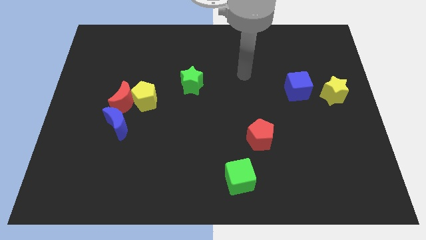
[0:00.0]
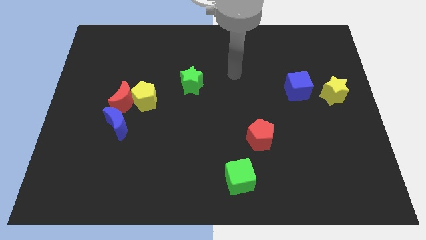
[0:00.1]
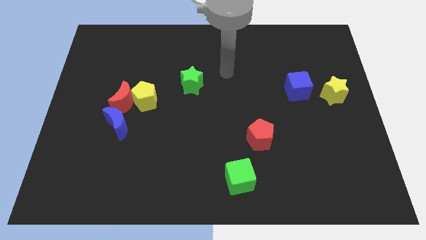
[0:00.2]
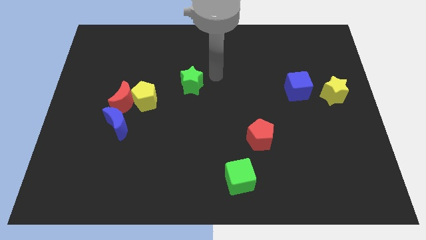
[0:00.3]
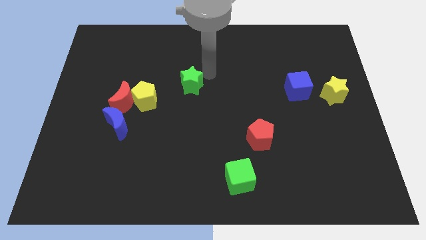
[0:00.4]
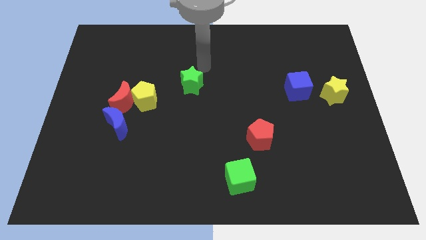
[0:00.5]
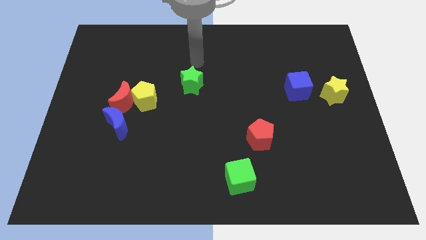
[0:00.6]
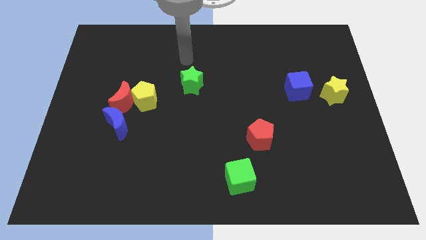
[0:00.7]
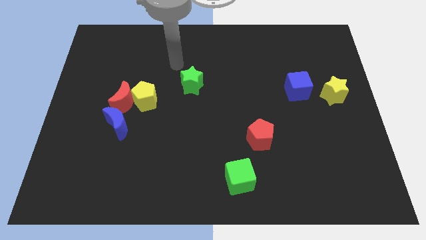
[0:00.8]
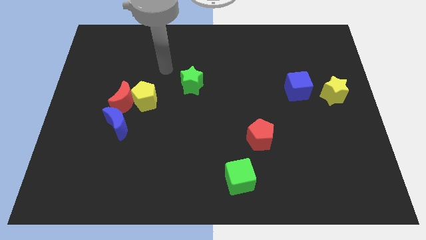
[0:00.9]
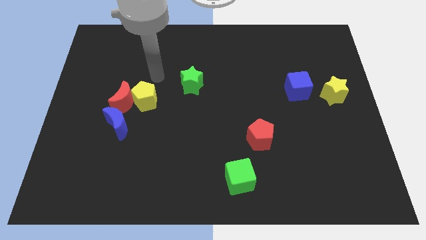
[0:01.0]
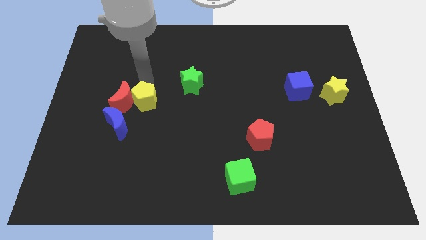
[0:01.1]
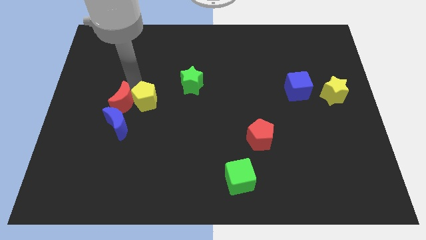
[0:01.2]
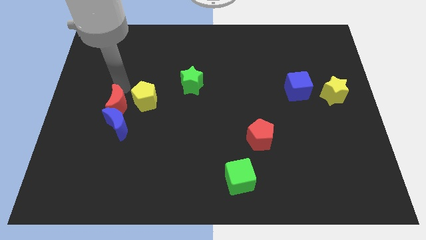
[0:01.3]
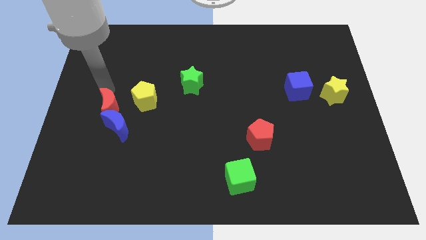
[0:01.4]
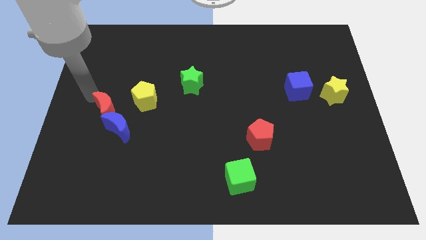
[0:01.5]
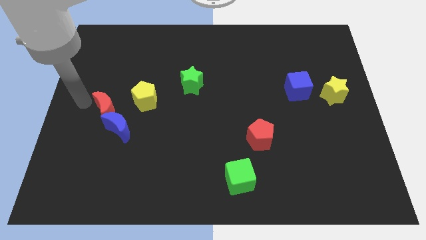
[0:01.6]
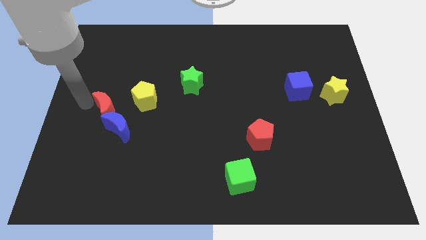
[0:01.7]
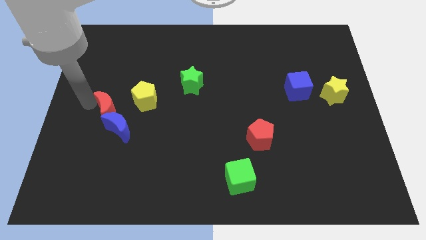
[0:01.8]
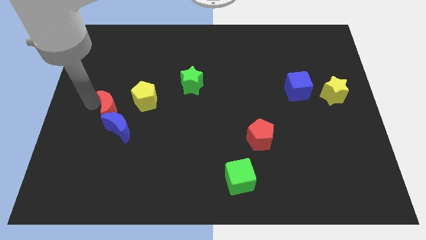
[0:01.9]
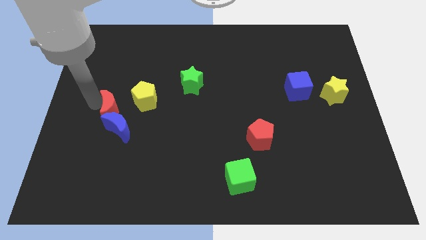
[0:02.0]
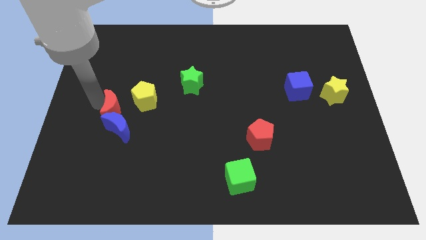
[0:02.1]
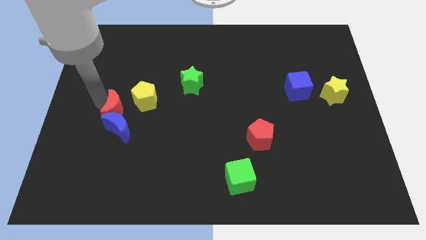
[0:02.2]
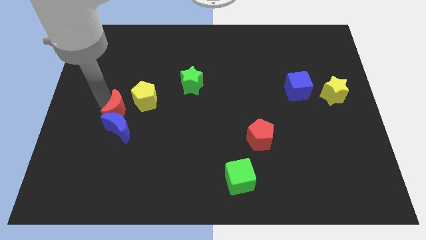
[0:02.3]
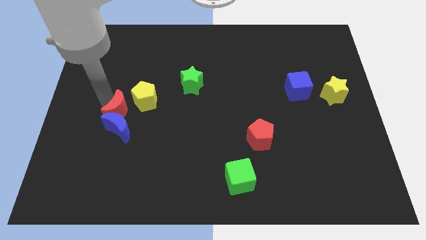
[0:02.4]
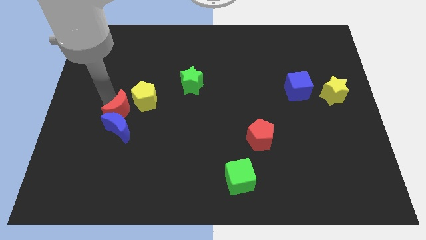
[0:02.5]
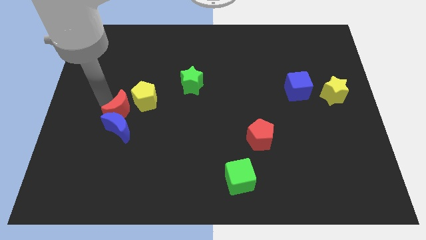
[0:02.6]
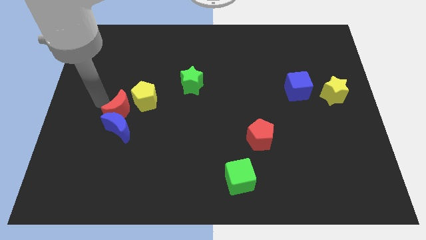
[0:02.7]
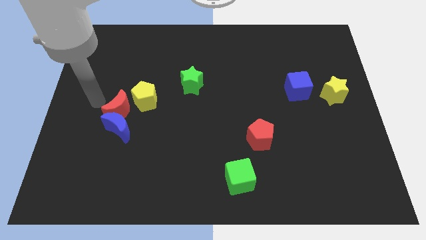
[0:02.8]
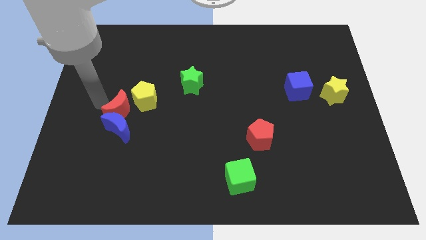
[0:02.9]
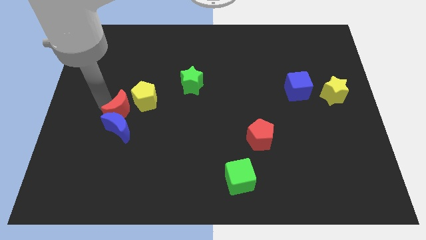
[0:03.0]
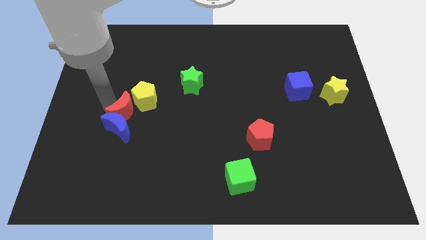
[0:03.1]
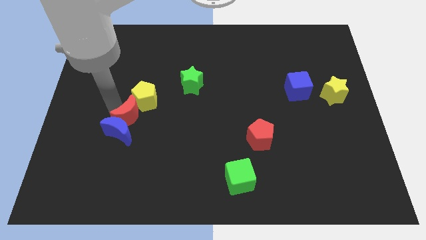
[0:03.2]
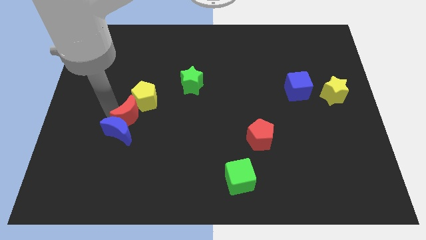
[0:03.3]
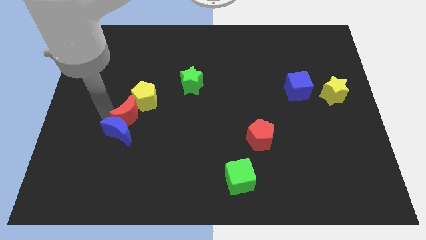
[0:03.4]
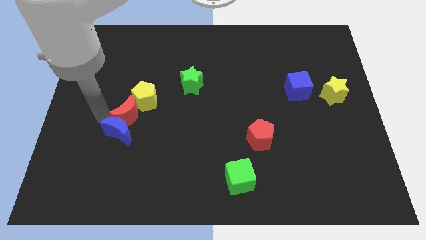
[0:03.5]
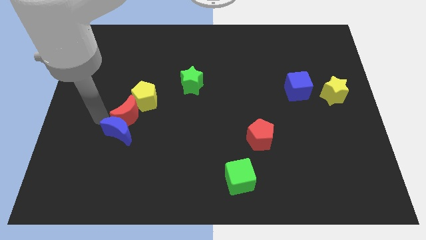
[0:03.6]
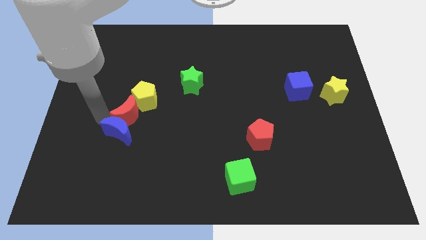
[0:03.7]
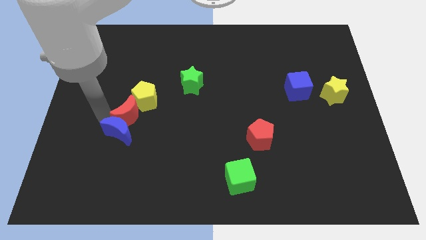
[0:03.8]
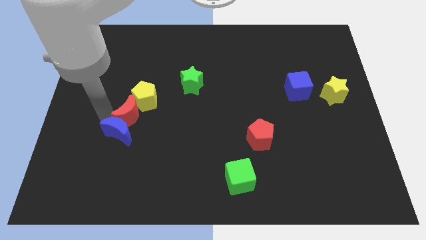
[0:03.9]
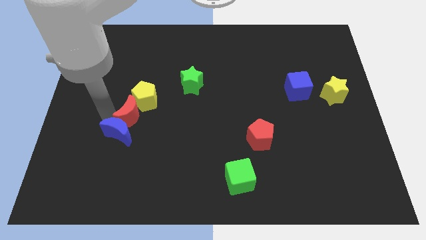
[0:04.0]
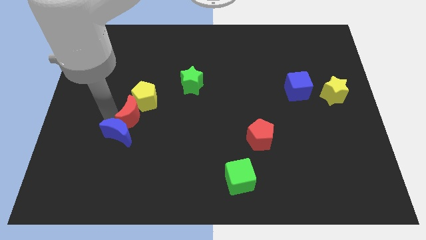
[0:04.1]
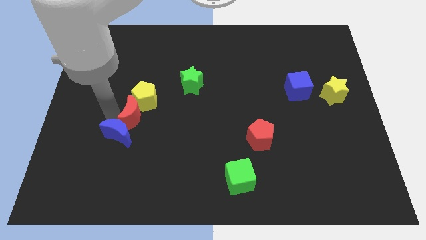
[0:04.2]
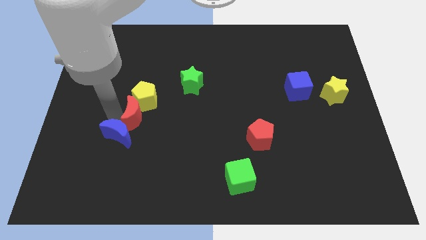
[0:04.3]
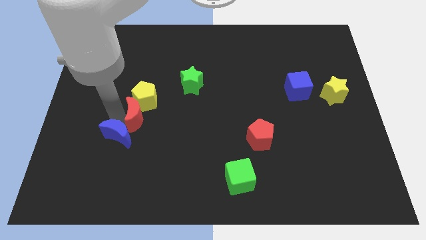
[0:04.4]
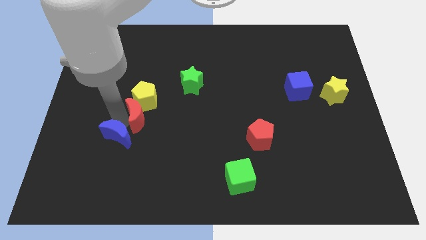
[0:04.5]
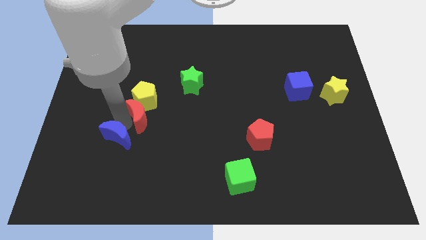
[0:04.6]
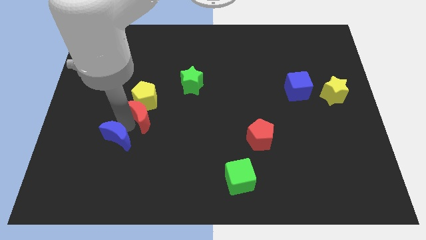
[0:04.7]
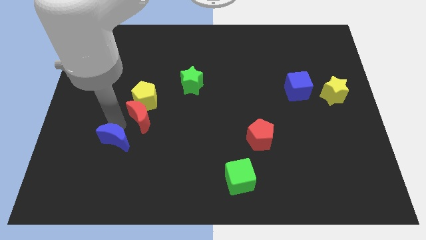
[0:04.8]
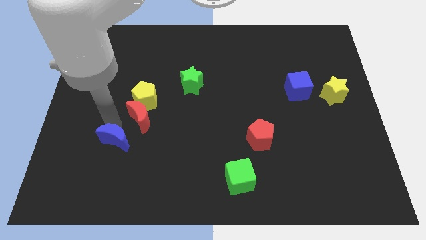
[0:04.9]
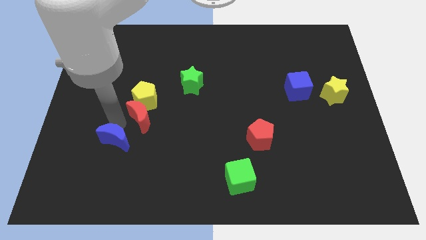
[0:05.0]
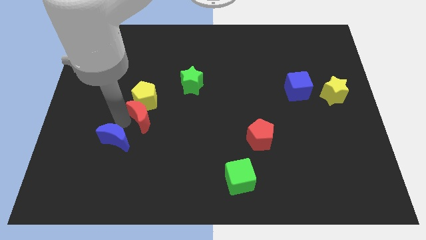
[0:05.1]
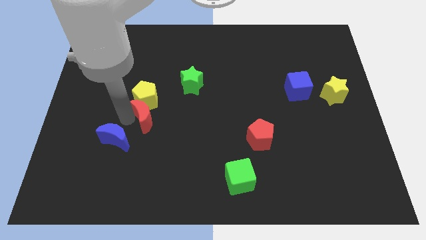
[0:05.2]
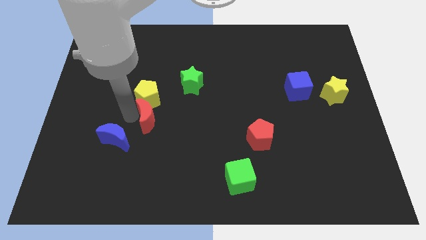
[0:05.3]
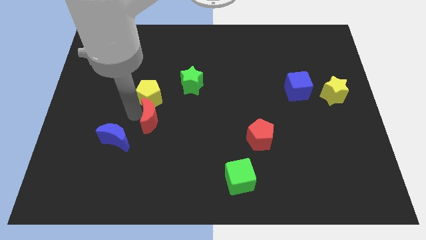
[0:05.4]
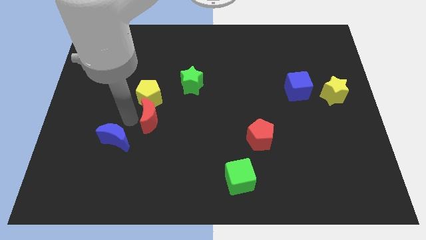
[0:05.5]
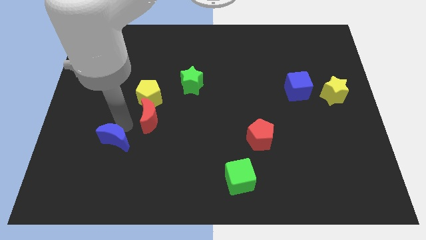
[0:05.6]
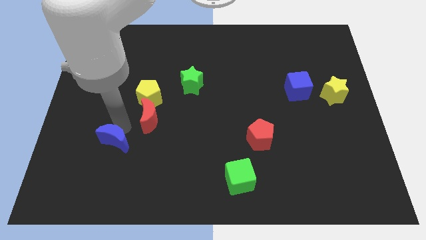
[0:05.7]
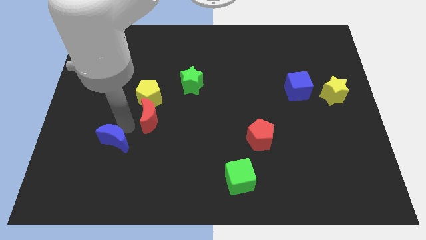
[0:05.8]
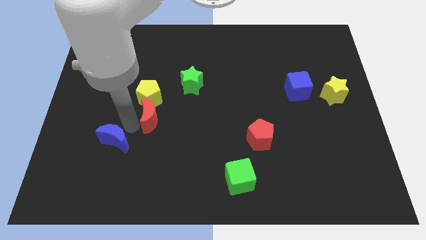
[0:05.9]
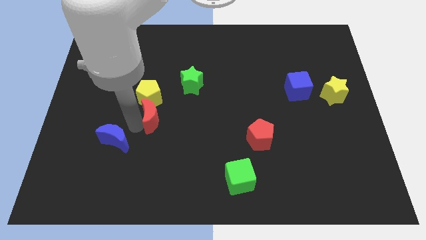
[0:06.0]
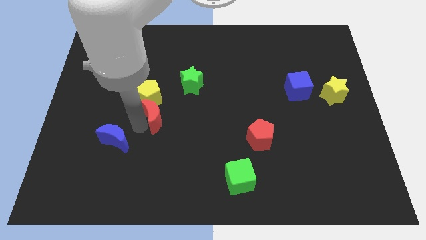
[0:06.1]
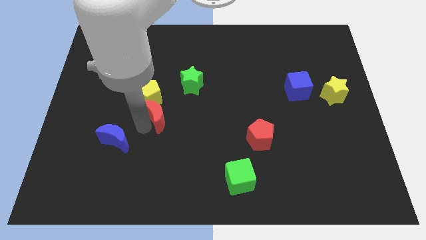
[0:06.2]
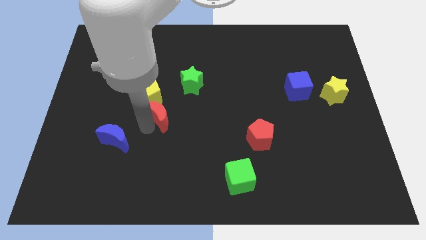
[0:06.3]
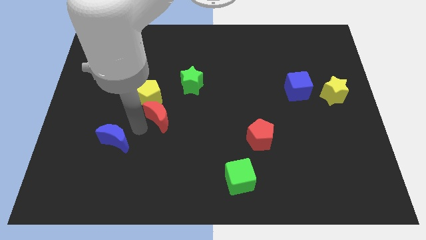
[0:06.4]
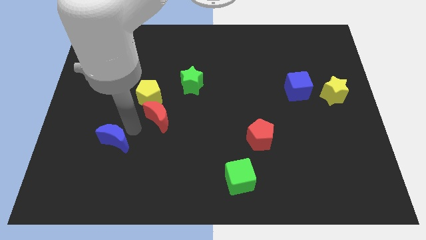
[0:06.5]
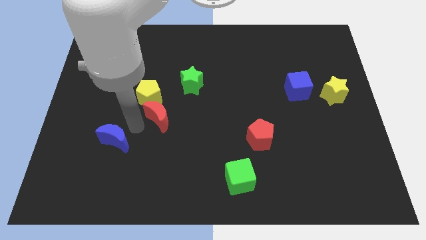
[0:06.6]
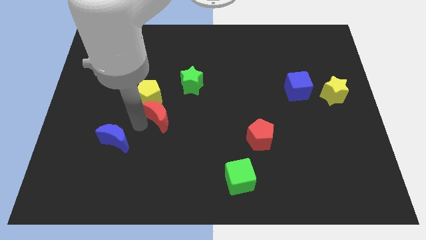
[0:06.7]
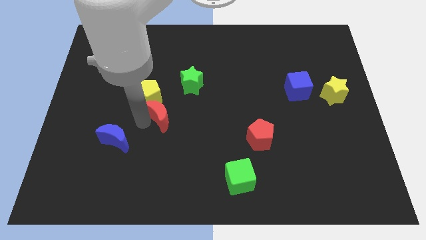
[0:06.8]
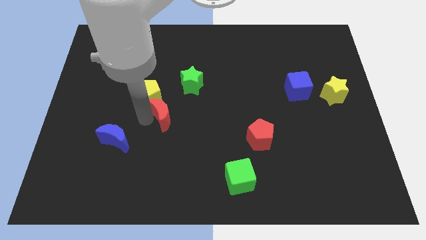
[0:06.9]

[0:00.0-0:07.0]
slide the red moon to the middle of the board

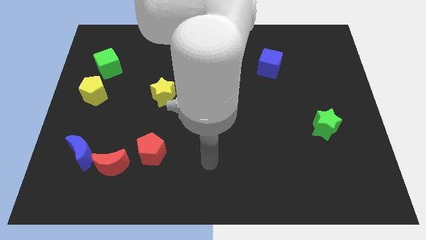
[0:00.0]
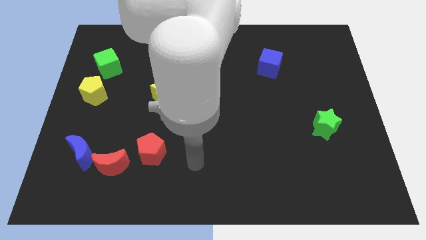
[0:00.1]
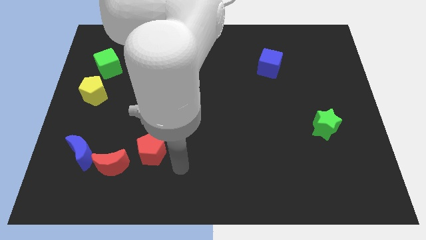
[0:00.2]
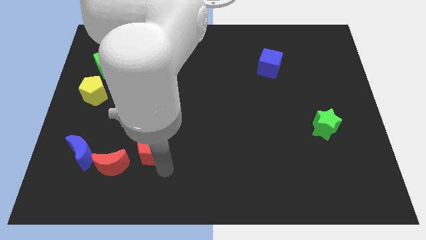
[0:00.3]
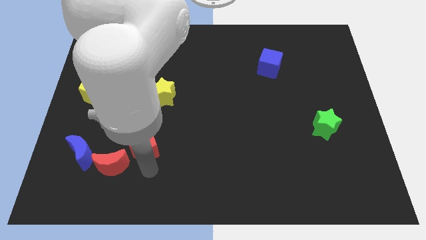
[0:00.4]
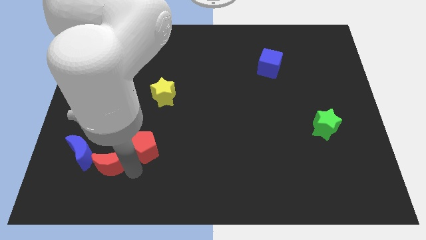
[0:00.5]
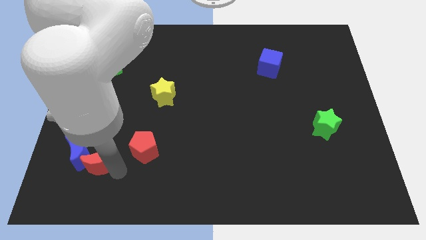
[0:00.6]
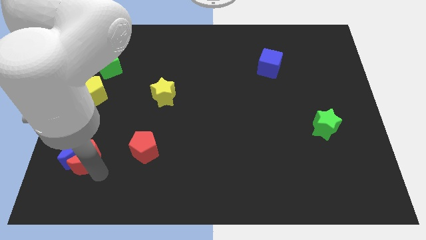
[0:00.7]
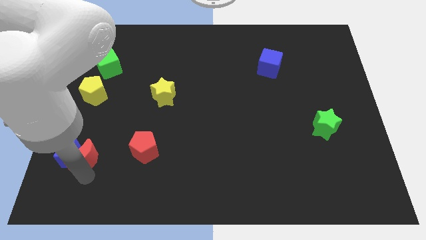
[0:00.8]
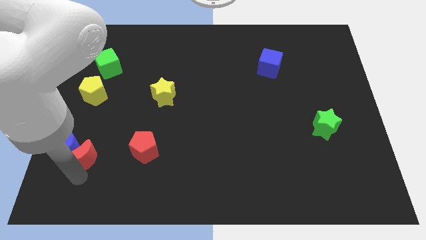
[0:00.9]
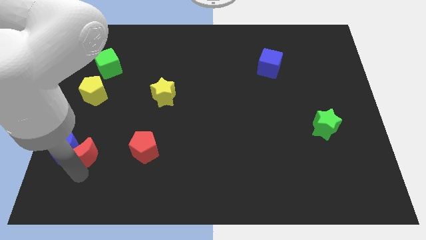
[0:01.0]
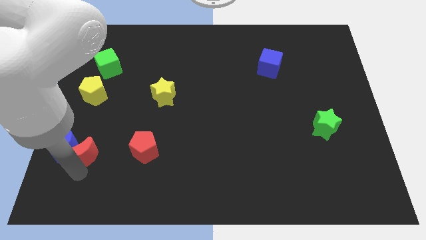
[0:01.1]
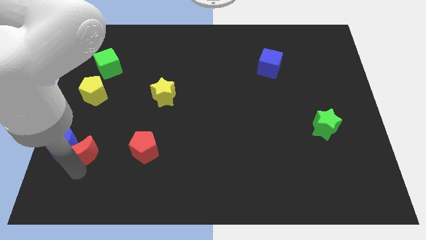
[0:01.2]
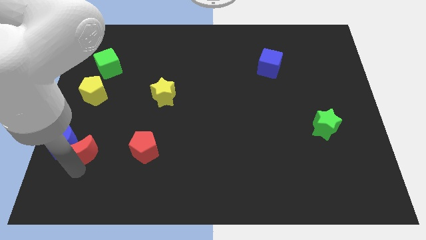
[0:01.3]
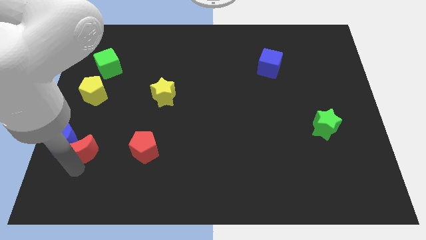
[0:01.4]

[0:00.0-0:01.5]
slide the blue moon to the center left
